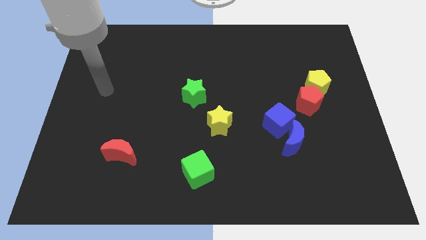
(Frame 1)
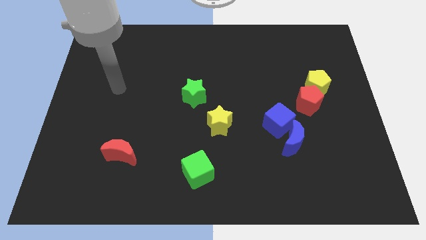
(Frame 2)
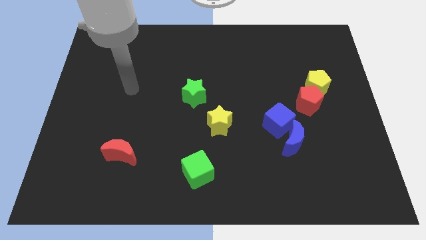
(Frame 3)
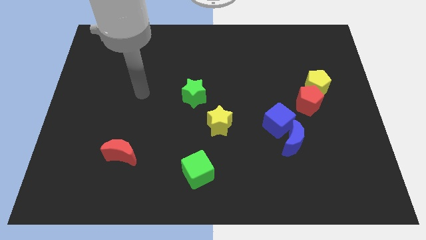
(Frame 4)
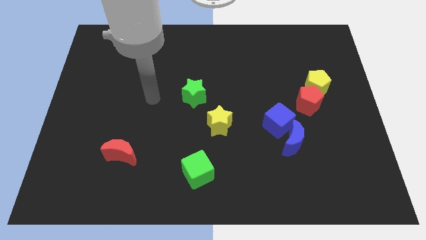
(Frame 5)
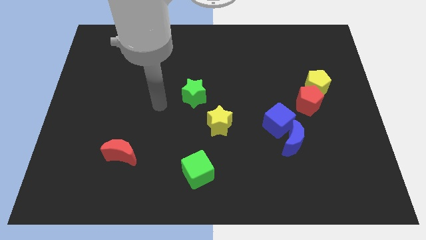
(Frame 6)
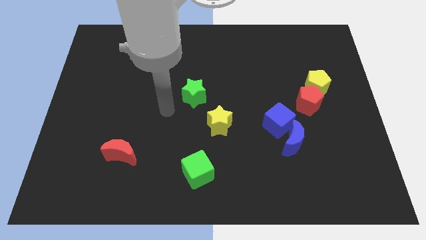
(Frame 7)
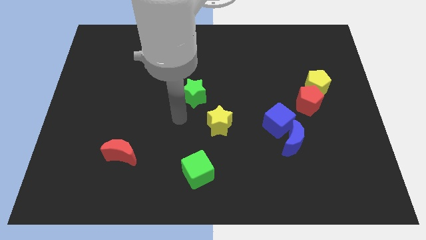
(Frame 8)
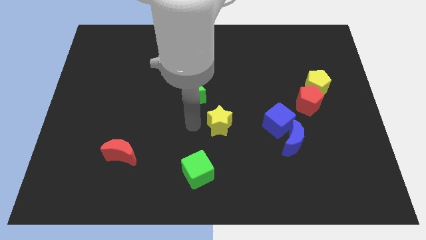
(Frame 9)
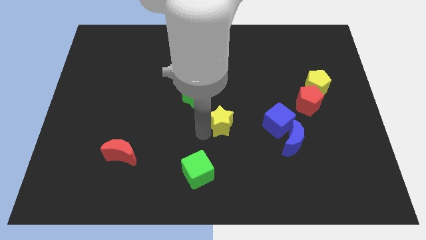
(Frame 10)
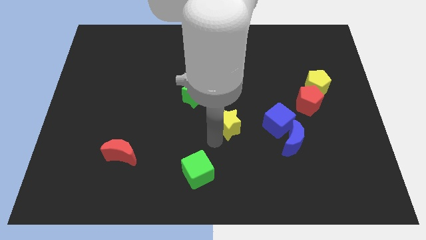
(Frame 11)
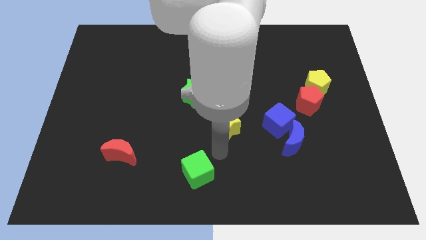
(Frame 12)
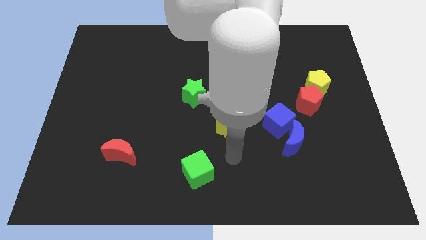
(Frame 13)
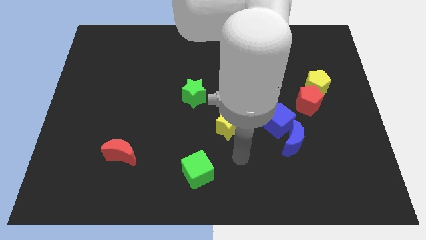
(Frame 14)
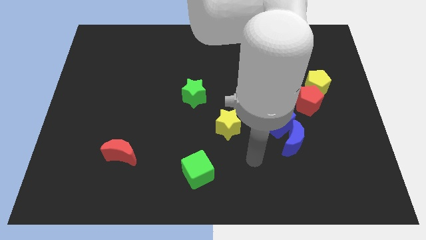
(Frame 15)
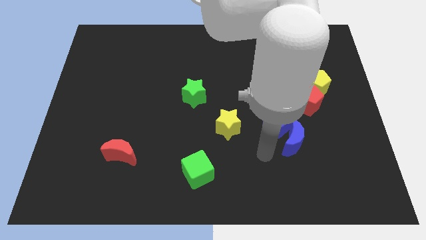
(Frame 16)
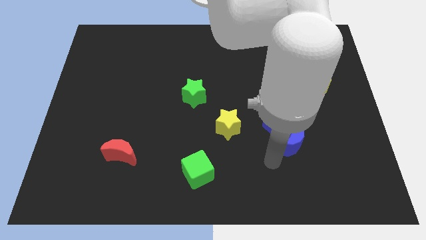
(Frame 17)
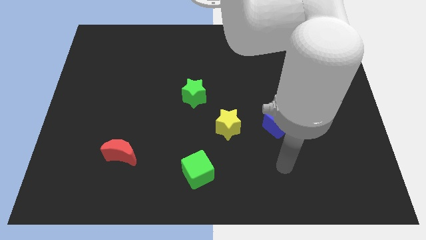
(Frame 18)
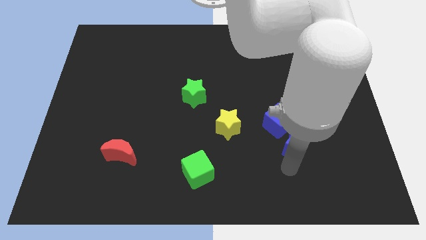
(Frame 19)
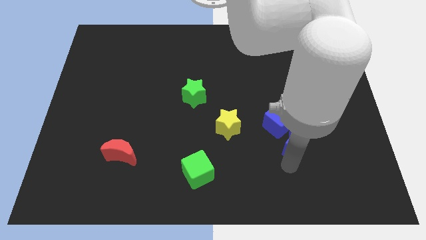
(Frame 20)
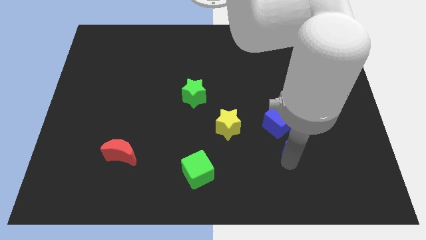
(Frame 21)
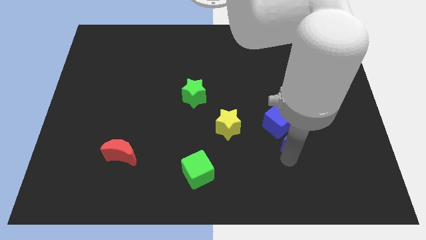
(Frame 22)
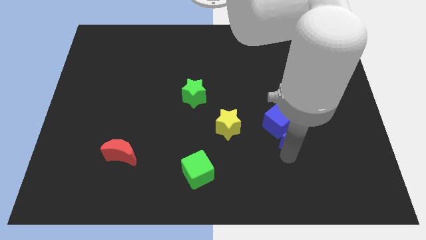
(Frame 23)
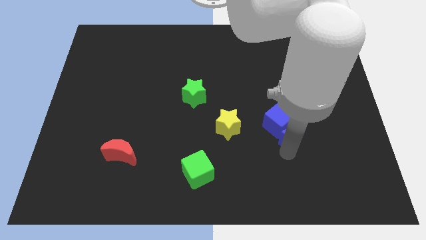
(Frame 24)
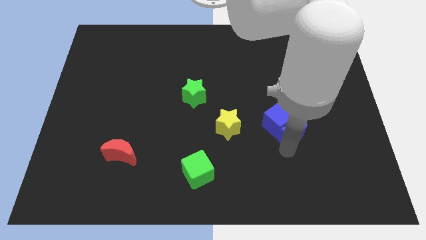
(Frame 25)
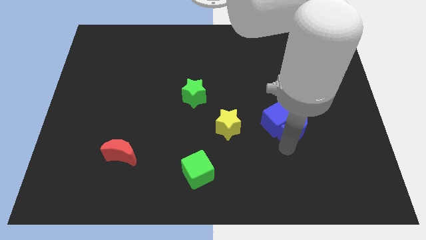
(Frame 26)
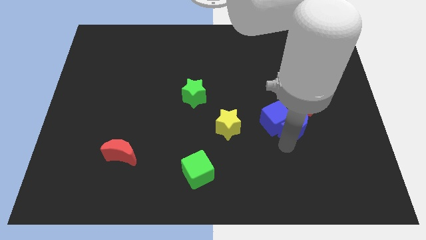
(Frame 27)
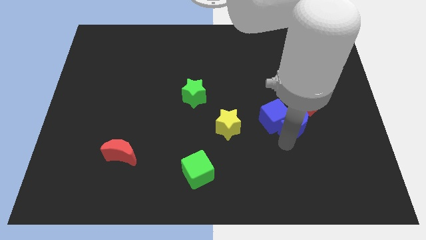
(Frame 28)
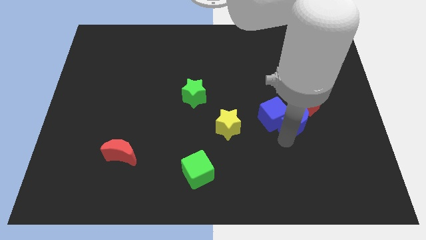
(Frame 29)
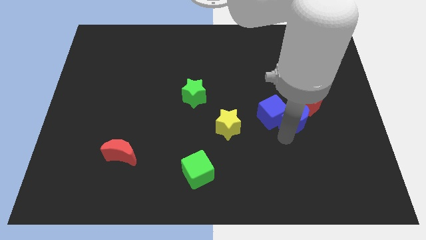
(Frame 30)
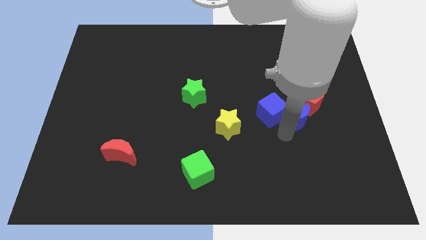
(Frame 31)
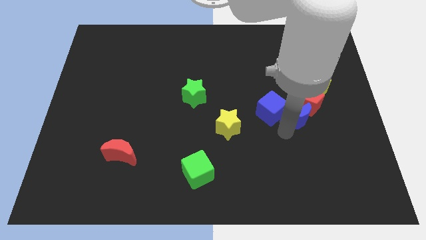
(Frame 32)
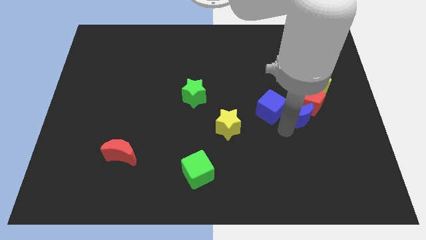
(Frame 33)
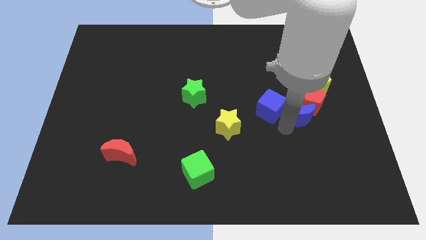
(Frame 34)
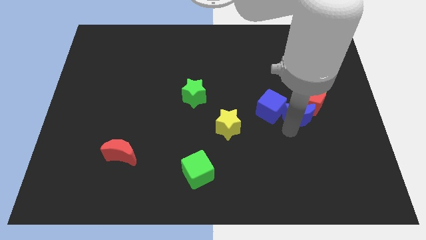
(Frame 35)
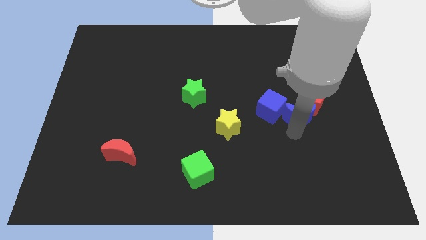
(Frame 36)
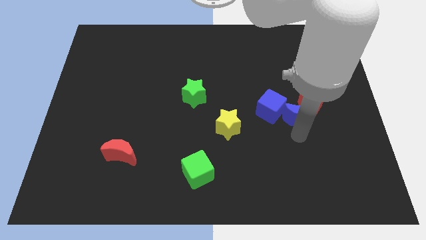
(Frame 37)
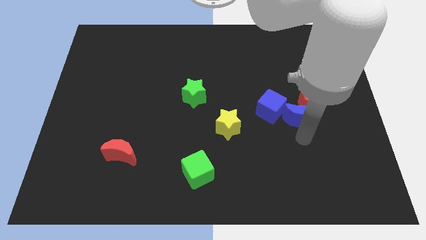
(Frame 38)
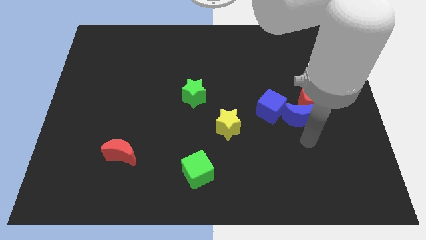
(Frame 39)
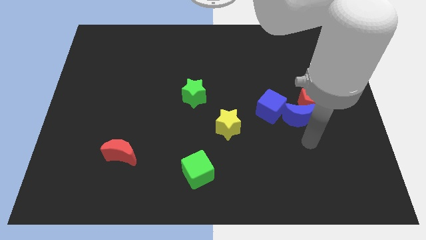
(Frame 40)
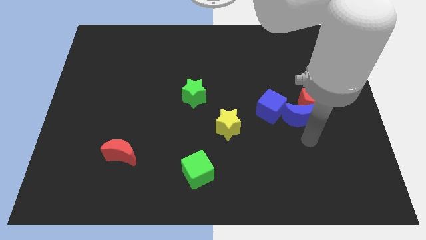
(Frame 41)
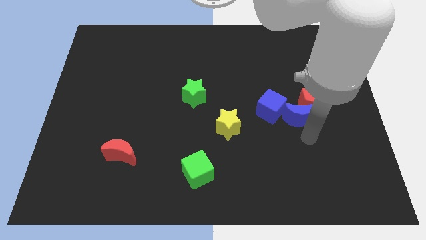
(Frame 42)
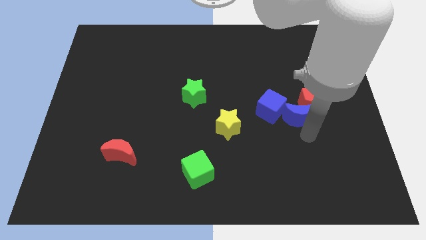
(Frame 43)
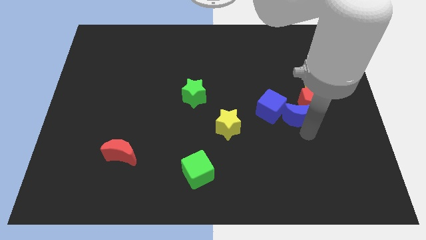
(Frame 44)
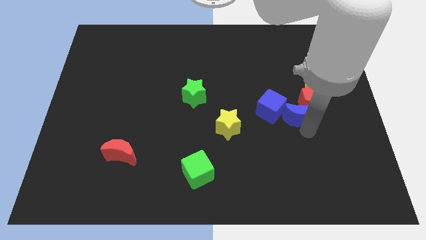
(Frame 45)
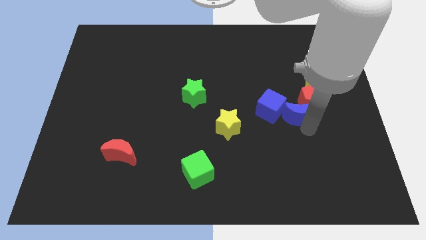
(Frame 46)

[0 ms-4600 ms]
slightly slide the blue moon upwards

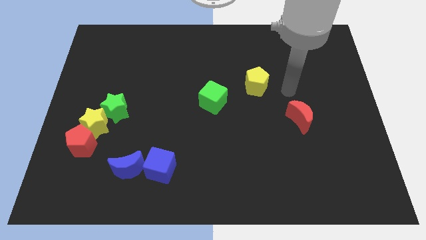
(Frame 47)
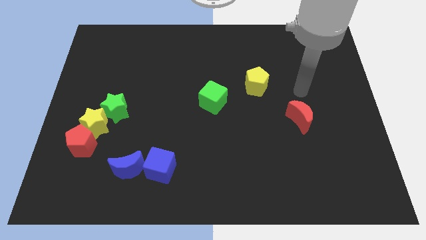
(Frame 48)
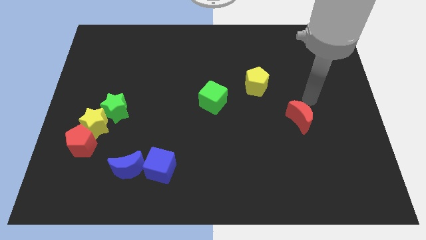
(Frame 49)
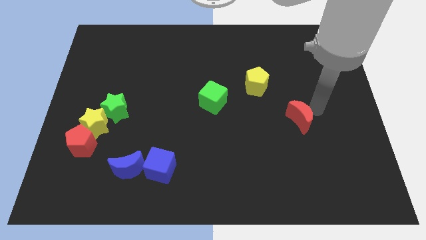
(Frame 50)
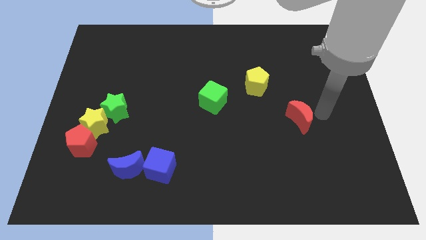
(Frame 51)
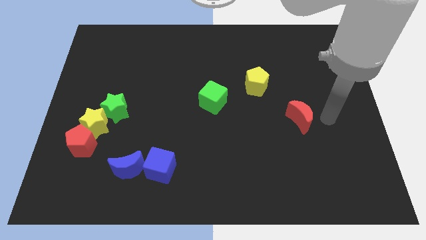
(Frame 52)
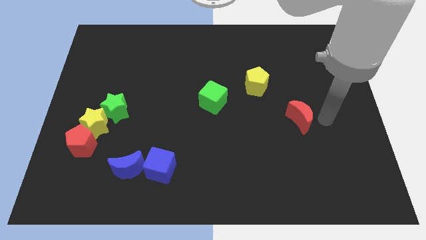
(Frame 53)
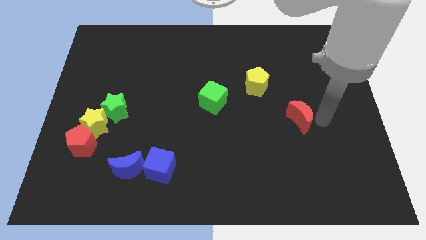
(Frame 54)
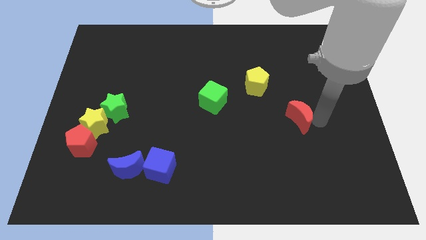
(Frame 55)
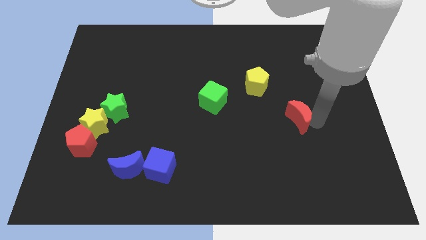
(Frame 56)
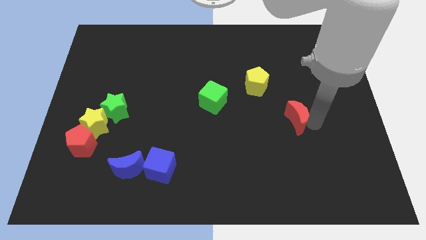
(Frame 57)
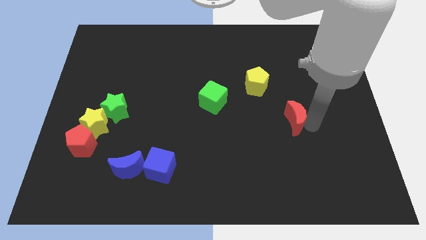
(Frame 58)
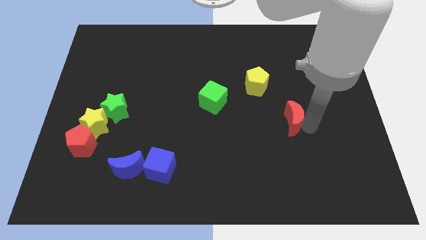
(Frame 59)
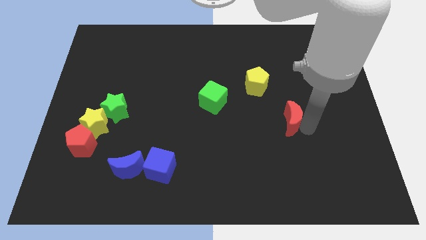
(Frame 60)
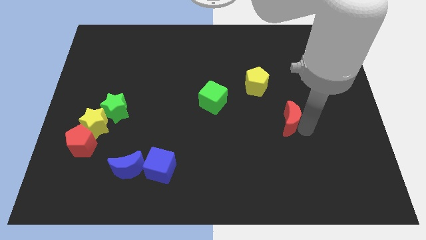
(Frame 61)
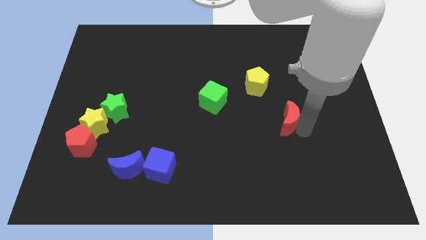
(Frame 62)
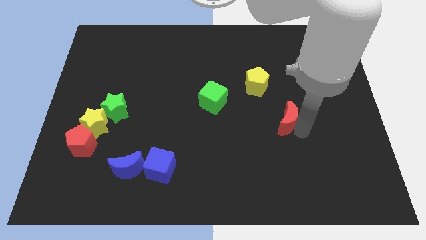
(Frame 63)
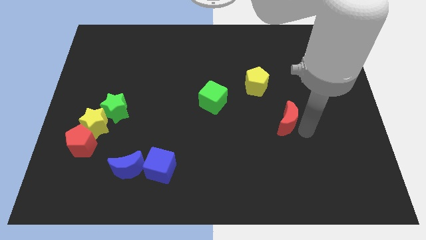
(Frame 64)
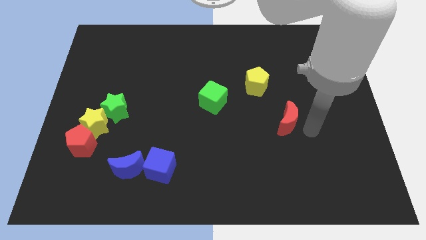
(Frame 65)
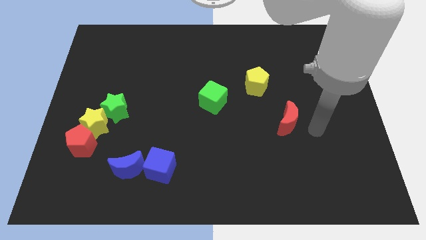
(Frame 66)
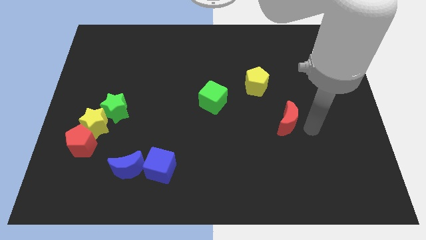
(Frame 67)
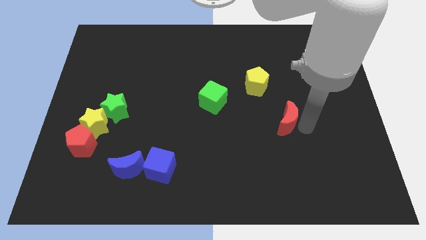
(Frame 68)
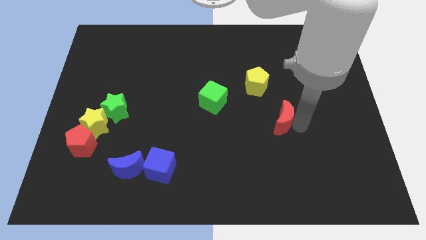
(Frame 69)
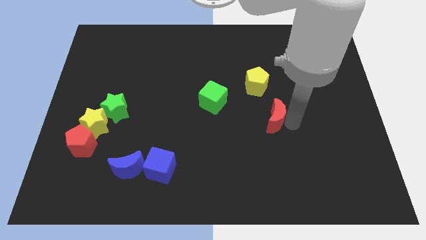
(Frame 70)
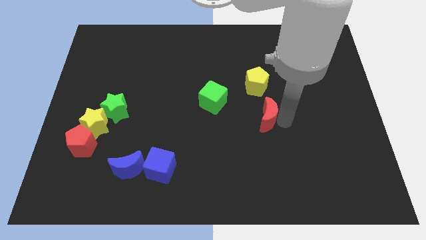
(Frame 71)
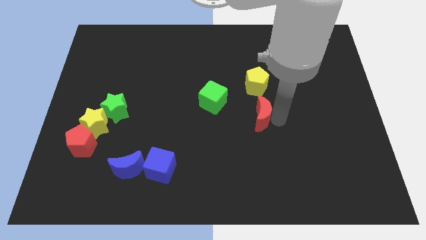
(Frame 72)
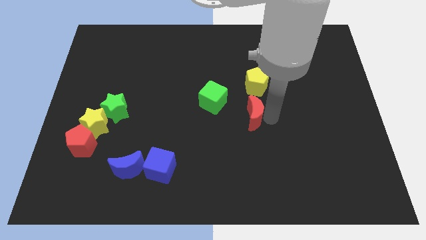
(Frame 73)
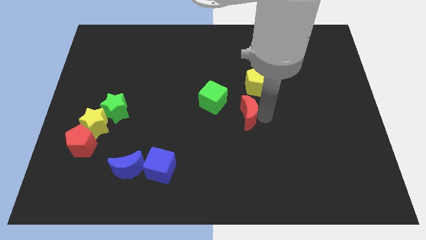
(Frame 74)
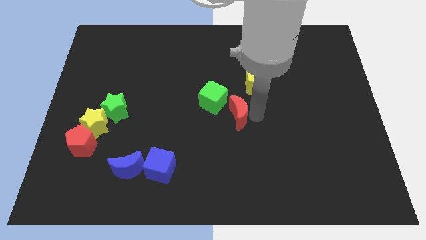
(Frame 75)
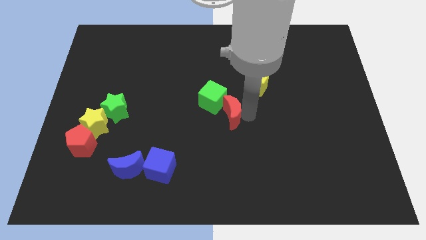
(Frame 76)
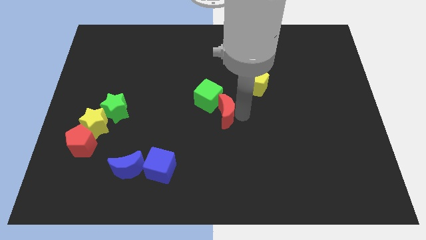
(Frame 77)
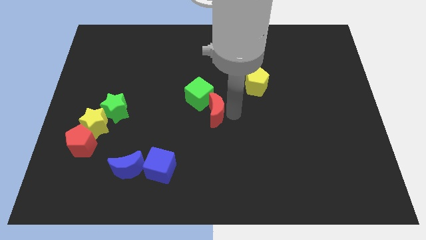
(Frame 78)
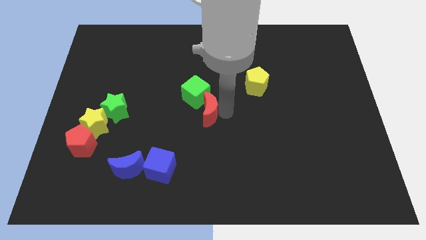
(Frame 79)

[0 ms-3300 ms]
slide the red moon left

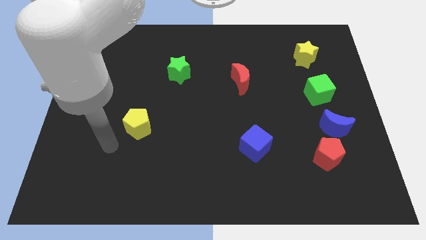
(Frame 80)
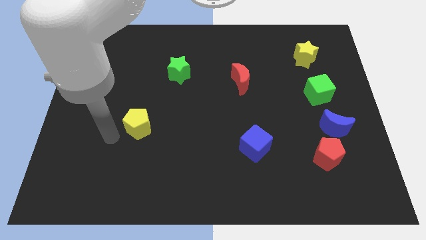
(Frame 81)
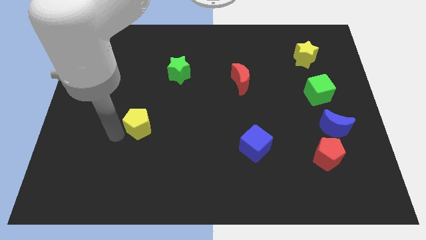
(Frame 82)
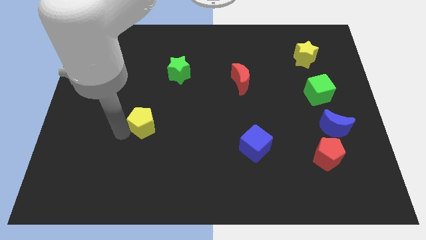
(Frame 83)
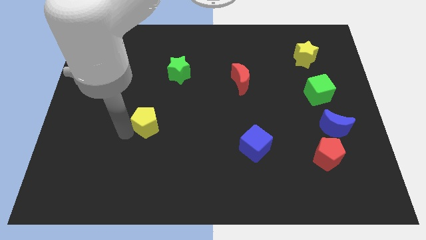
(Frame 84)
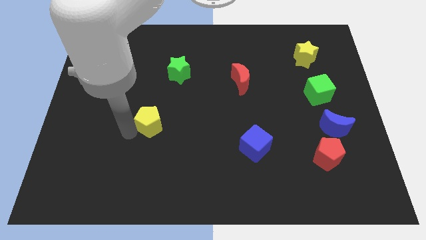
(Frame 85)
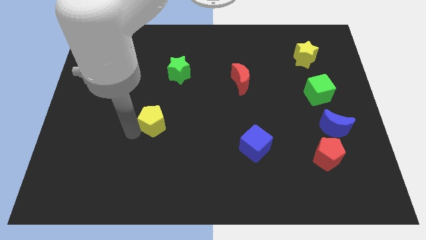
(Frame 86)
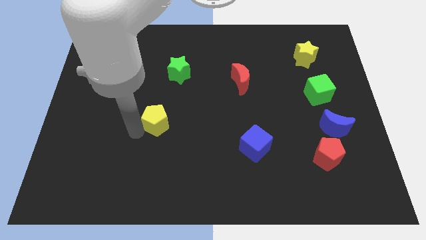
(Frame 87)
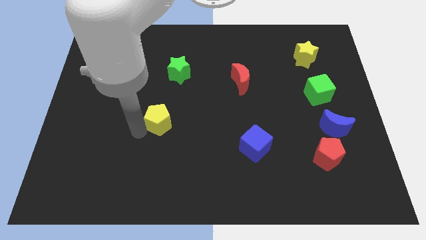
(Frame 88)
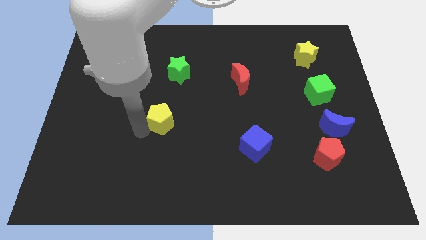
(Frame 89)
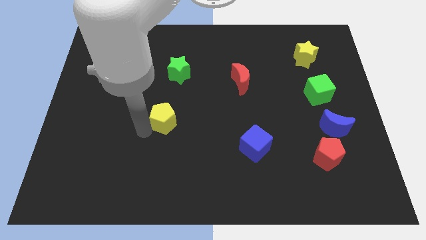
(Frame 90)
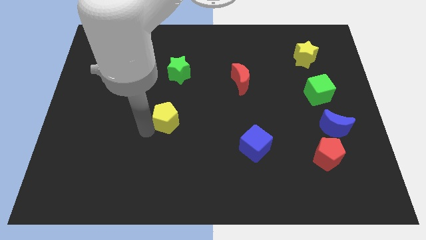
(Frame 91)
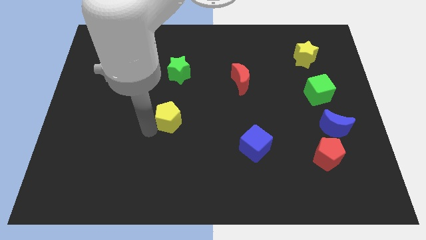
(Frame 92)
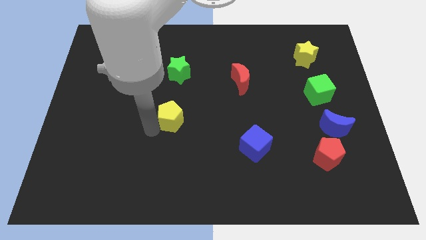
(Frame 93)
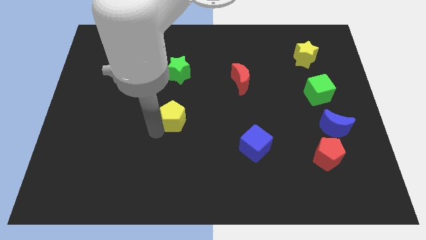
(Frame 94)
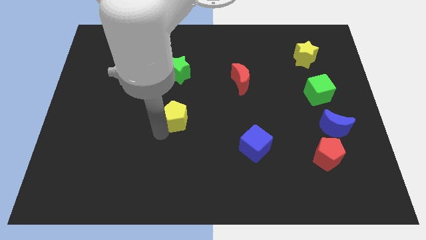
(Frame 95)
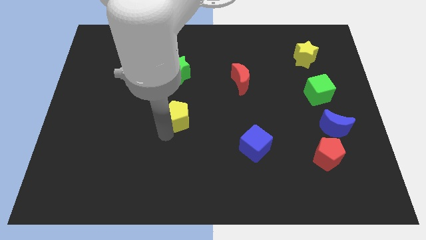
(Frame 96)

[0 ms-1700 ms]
move the yellow pentagon a bit up and then right
